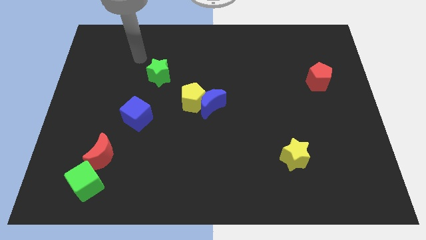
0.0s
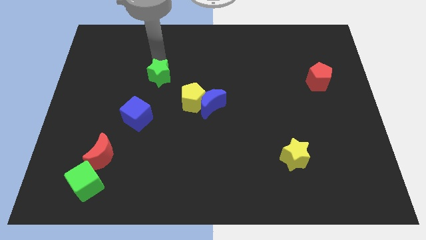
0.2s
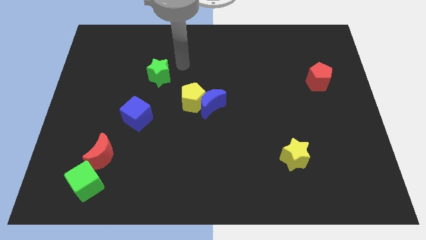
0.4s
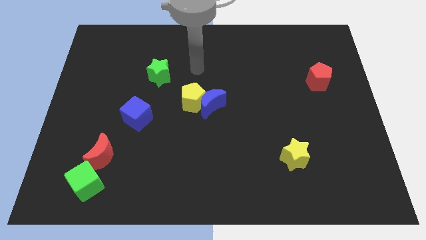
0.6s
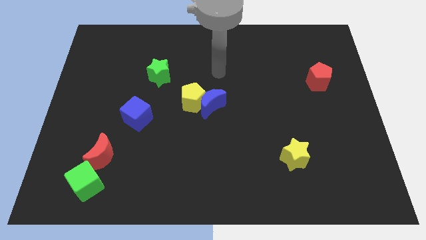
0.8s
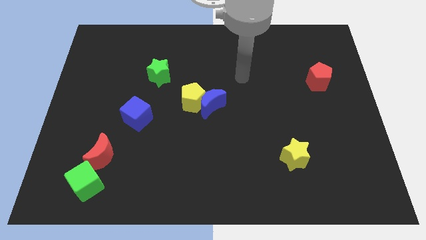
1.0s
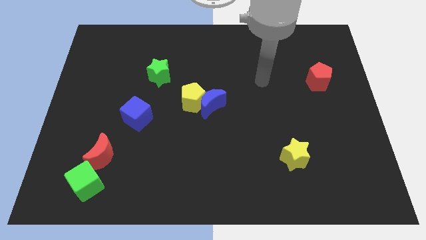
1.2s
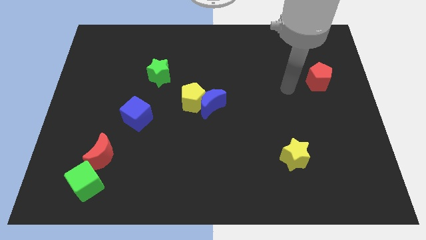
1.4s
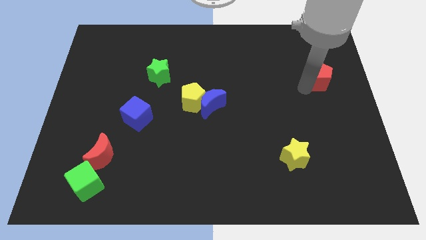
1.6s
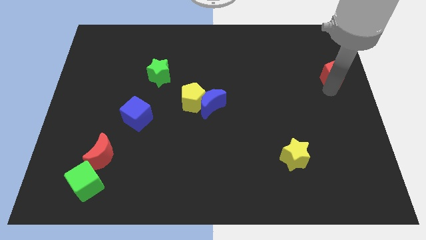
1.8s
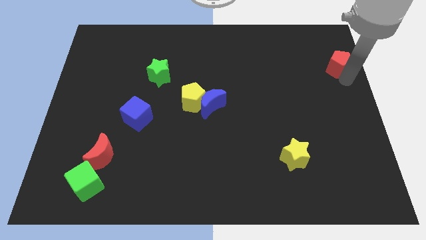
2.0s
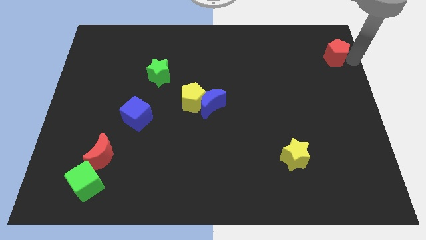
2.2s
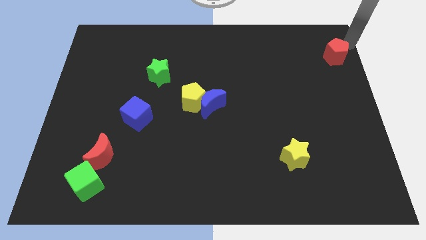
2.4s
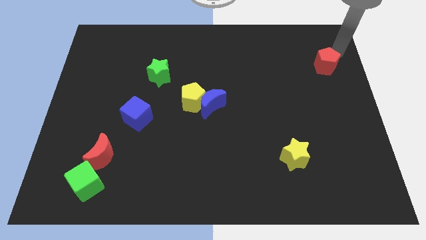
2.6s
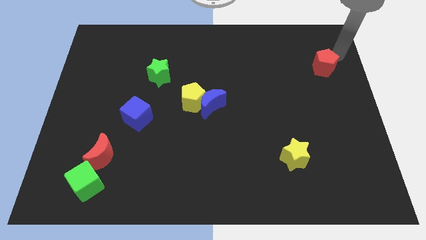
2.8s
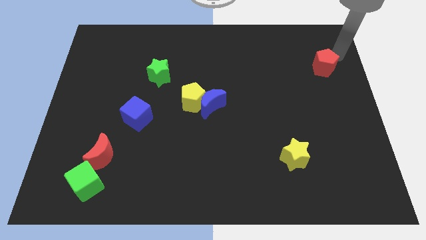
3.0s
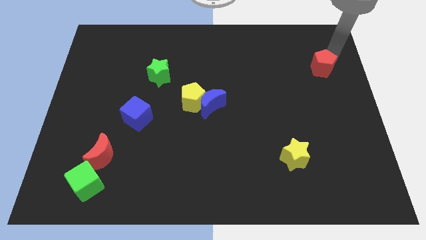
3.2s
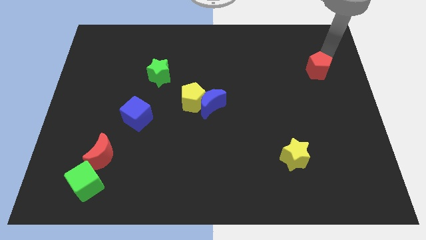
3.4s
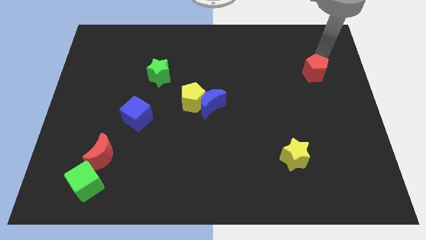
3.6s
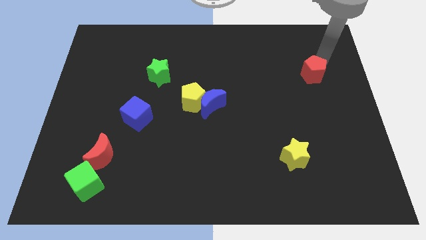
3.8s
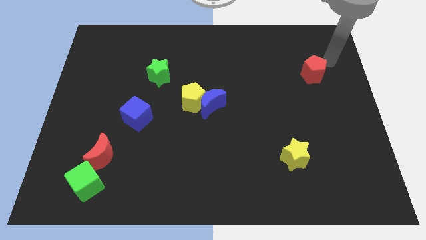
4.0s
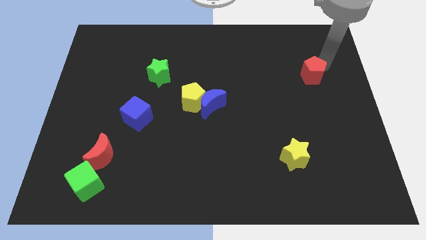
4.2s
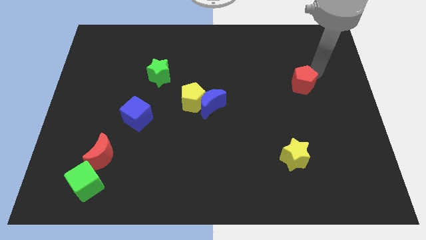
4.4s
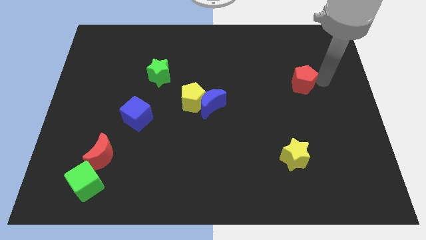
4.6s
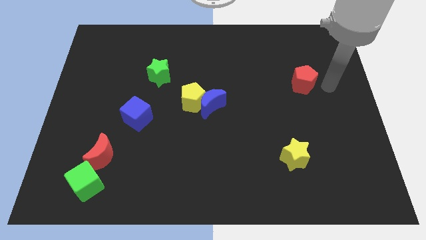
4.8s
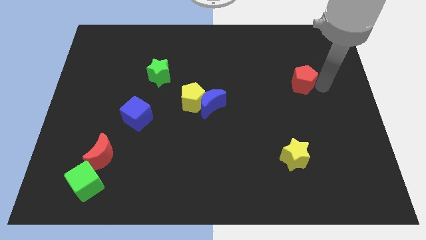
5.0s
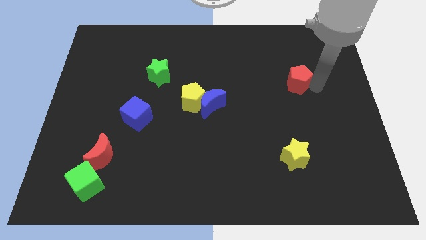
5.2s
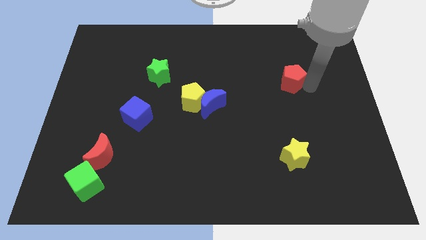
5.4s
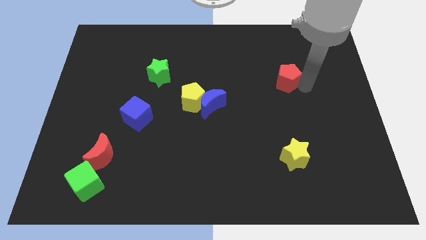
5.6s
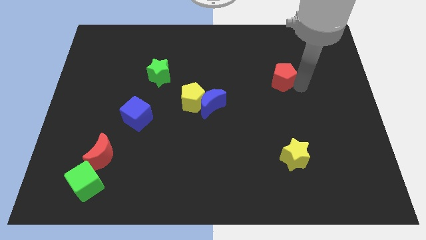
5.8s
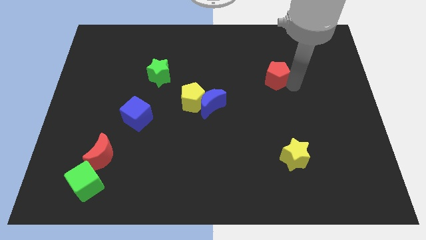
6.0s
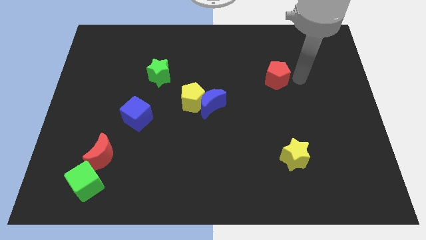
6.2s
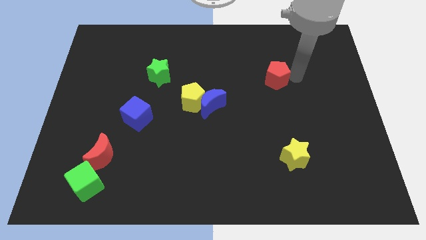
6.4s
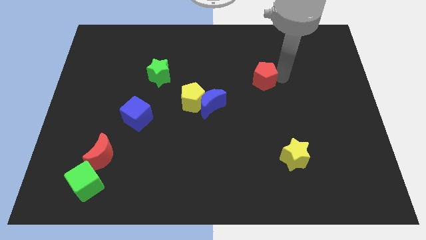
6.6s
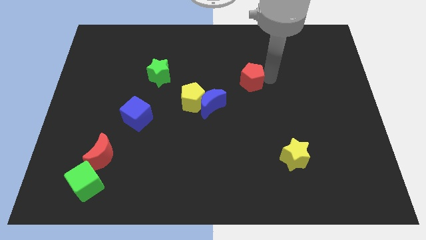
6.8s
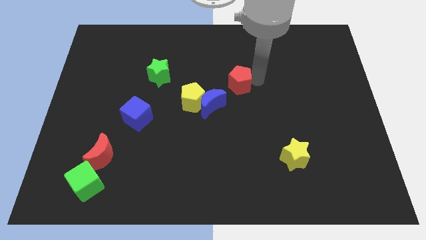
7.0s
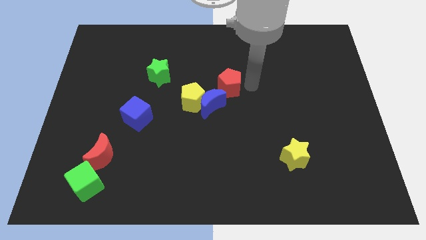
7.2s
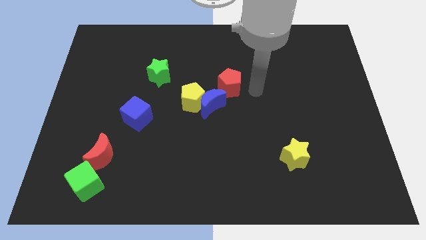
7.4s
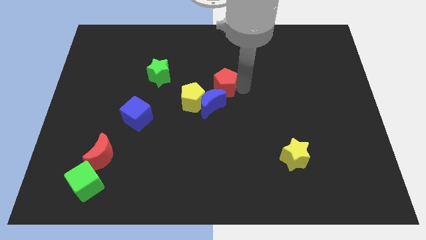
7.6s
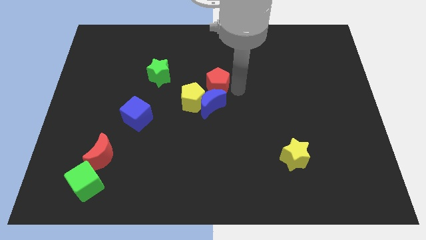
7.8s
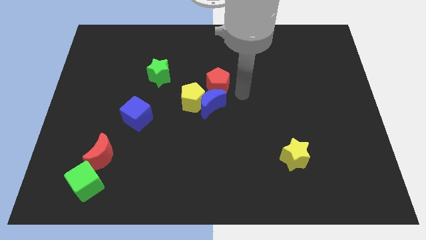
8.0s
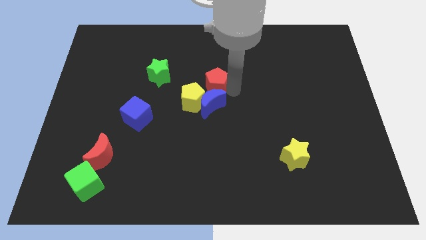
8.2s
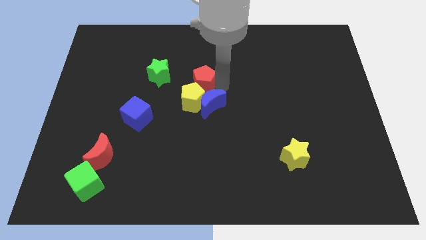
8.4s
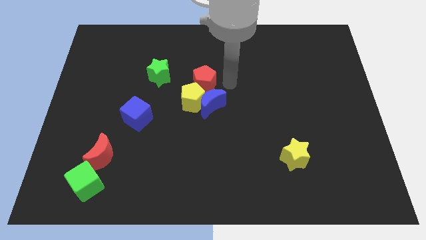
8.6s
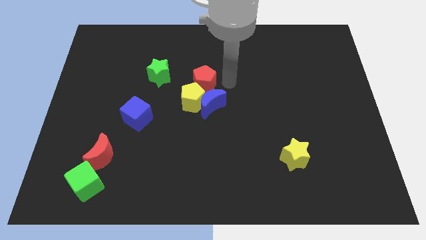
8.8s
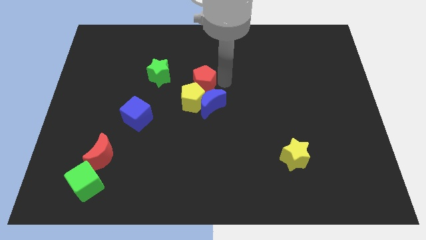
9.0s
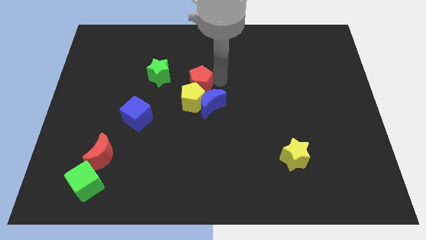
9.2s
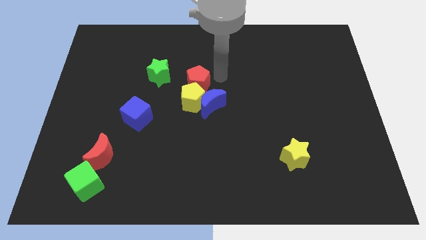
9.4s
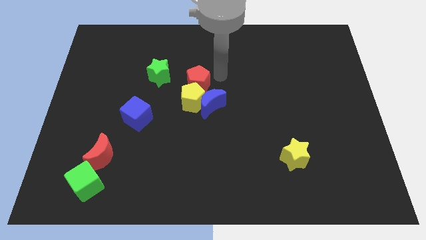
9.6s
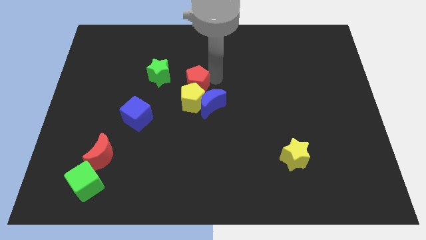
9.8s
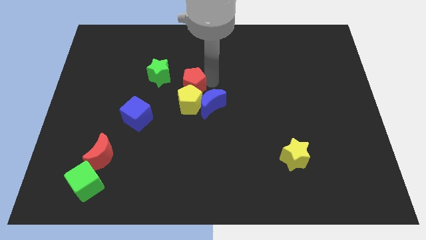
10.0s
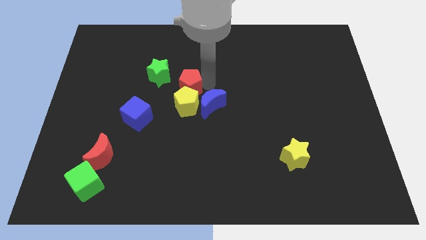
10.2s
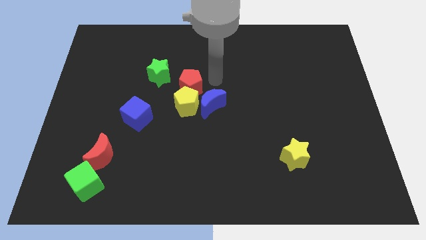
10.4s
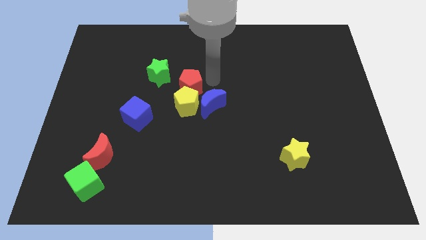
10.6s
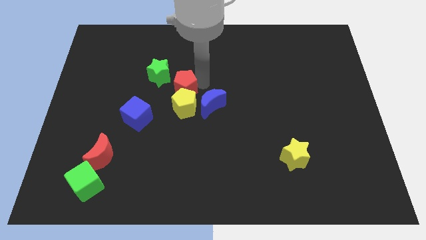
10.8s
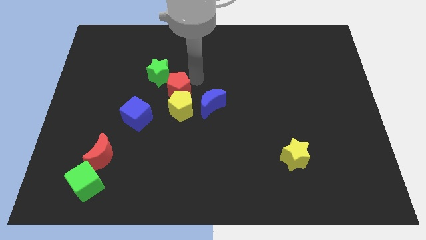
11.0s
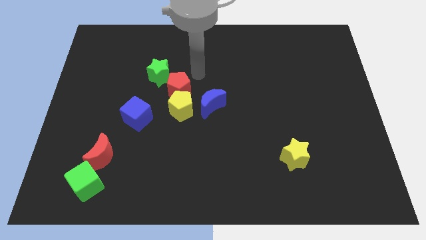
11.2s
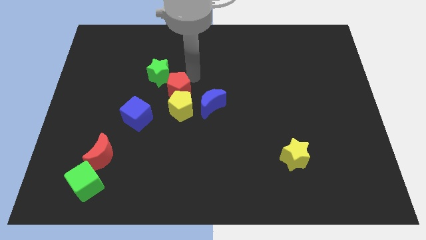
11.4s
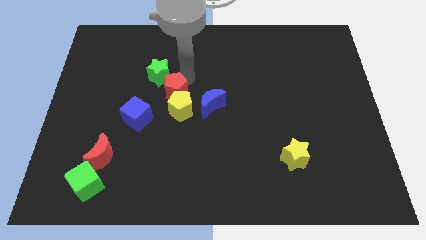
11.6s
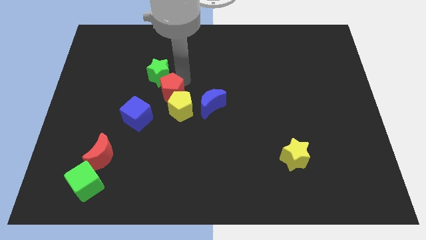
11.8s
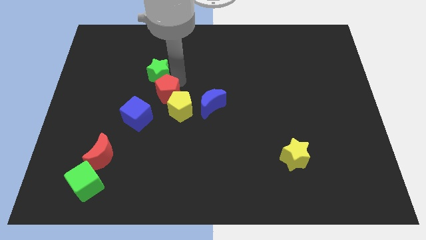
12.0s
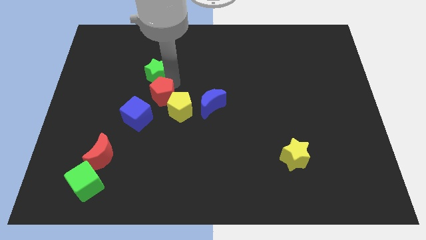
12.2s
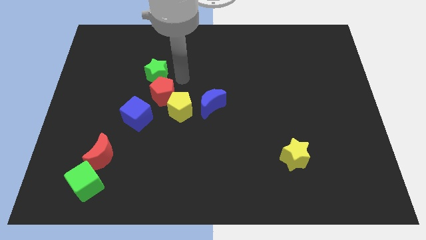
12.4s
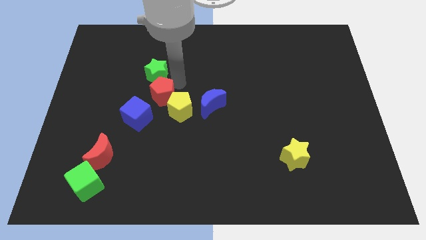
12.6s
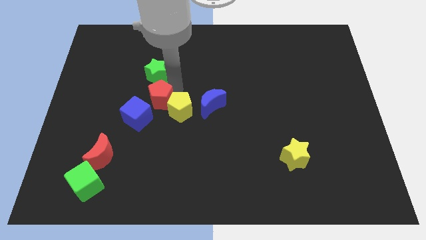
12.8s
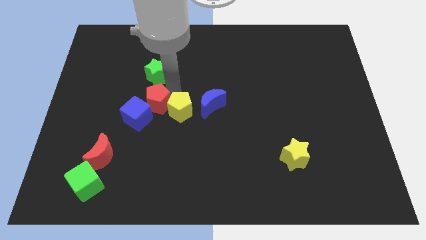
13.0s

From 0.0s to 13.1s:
slide the red pentagon close to the blue cube

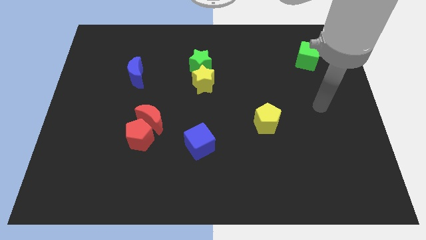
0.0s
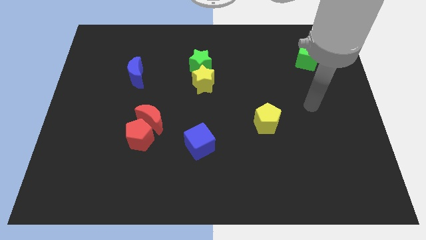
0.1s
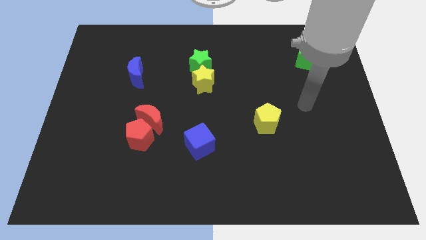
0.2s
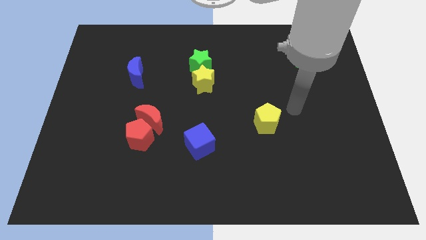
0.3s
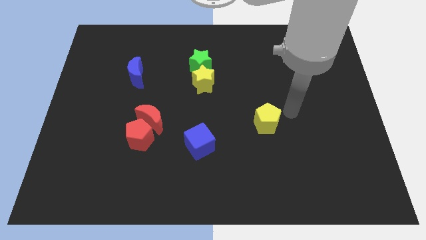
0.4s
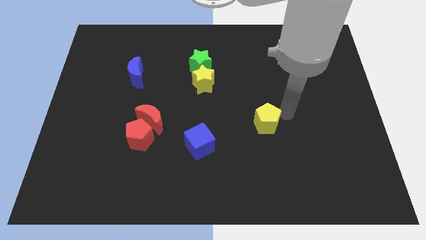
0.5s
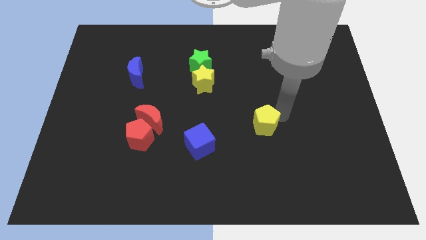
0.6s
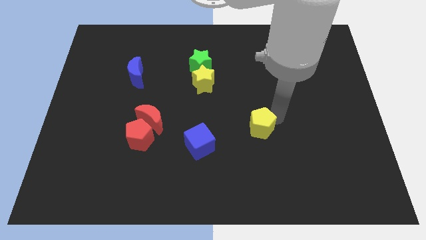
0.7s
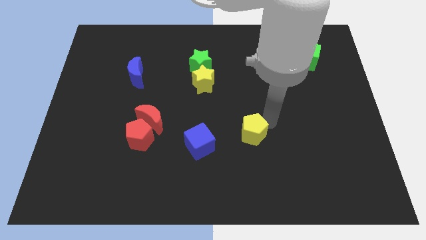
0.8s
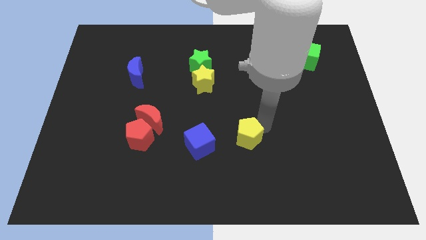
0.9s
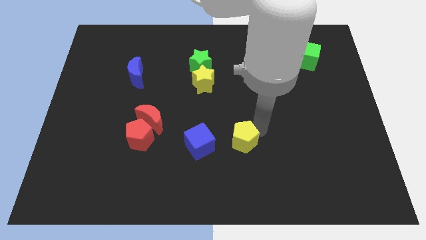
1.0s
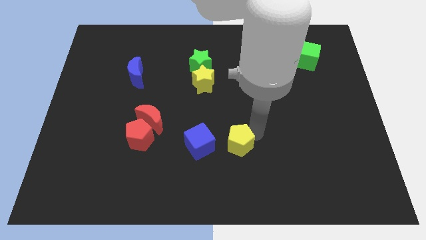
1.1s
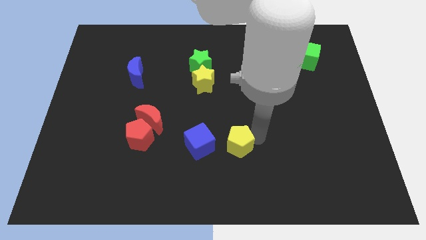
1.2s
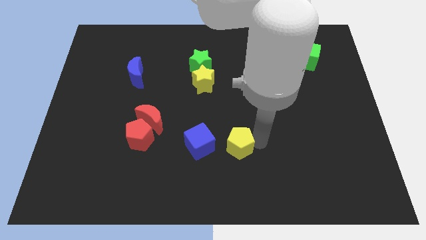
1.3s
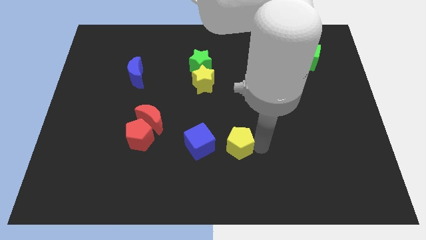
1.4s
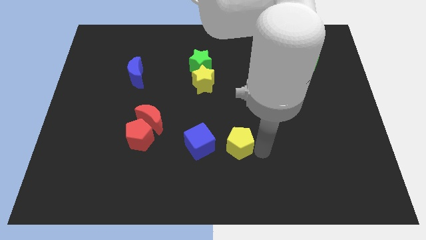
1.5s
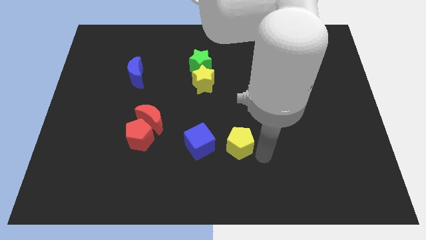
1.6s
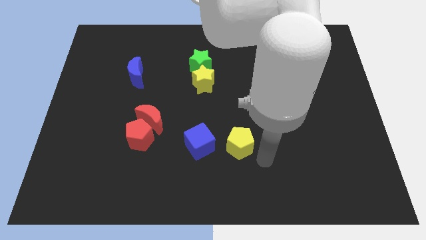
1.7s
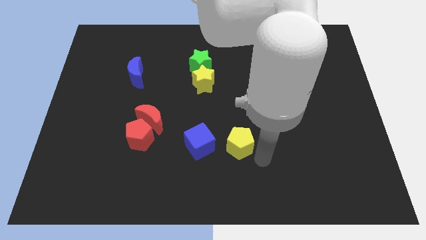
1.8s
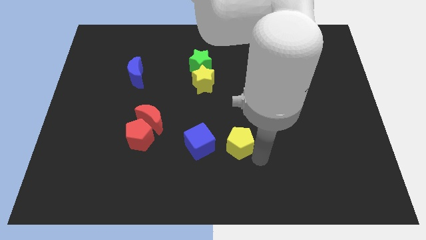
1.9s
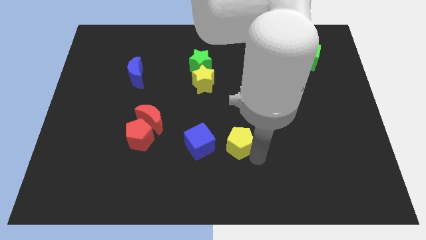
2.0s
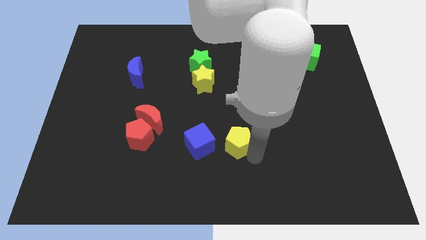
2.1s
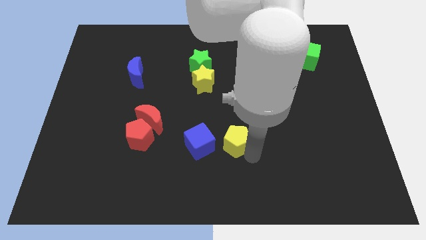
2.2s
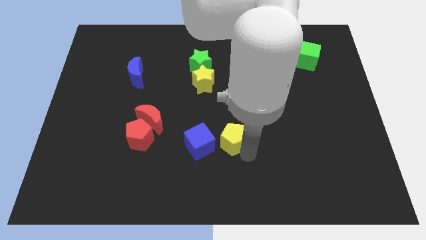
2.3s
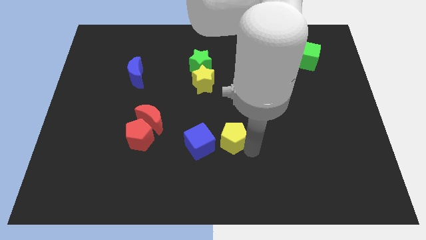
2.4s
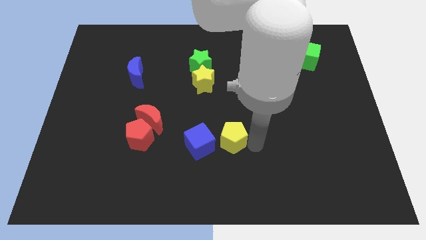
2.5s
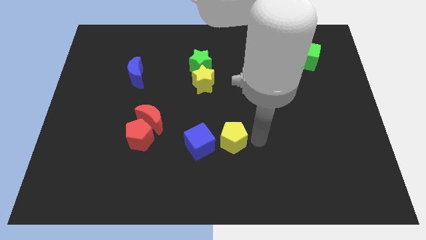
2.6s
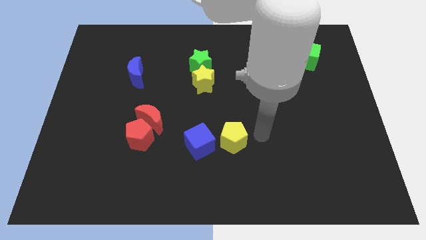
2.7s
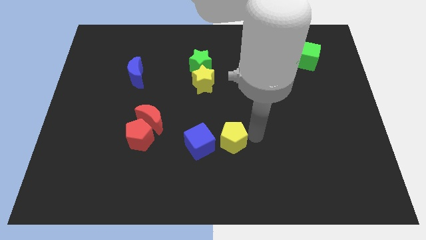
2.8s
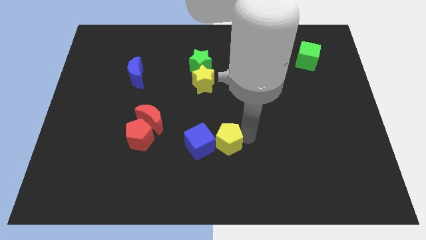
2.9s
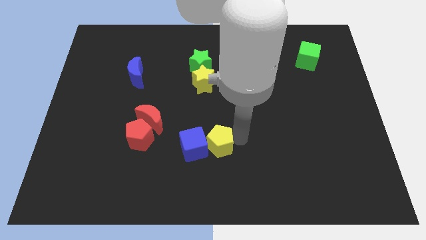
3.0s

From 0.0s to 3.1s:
slide the yellow pentagon towards the blue cube
